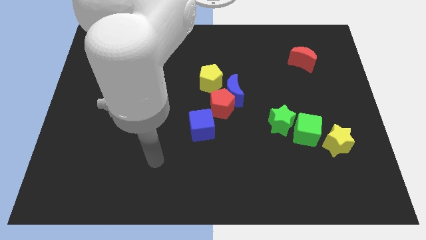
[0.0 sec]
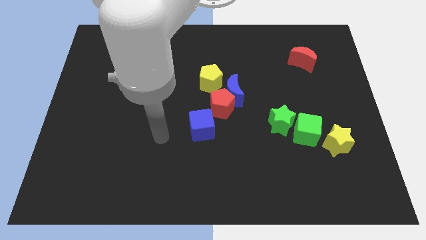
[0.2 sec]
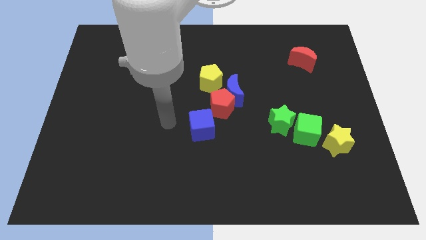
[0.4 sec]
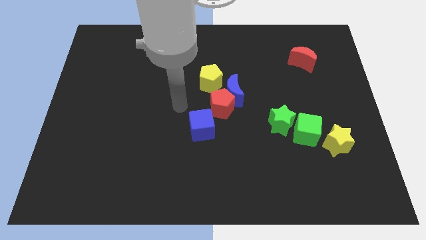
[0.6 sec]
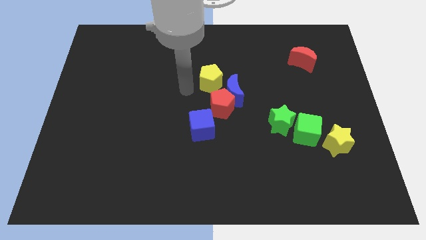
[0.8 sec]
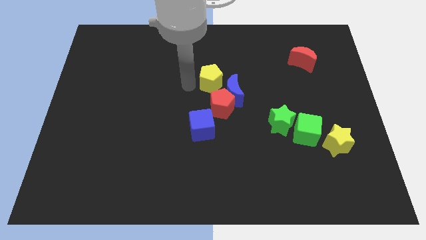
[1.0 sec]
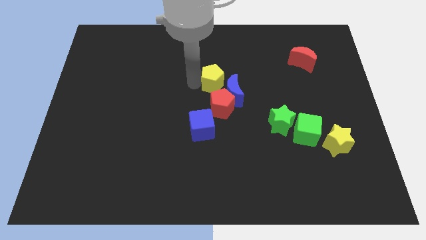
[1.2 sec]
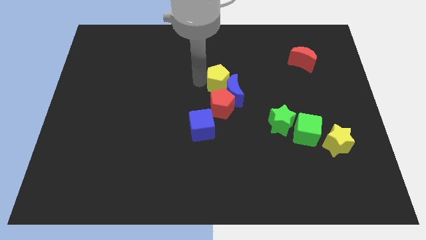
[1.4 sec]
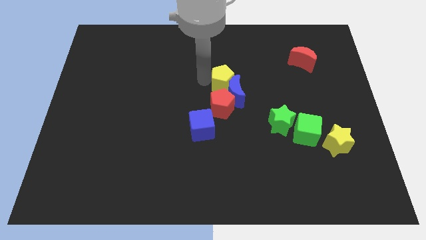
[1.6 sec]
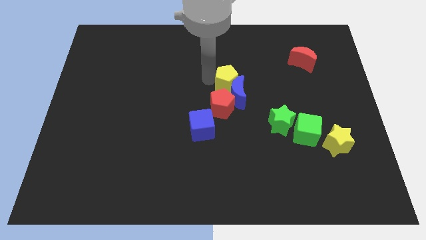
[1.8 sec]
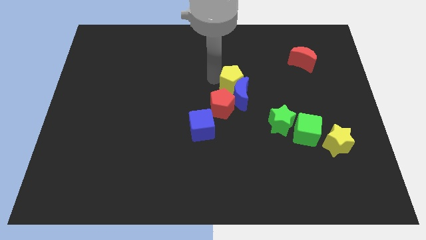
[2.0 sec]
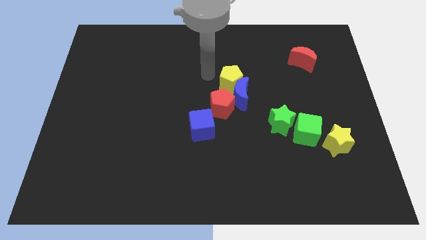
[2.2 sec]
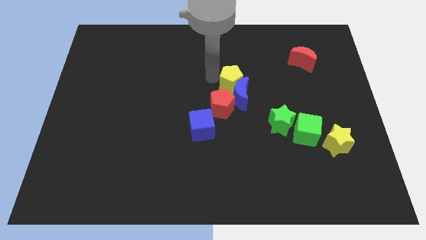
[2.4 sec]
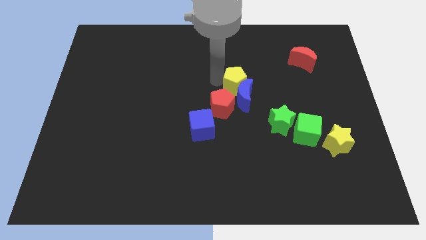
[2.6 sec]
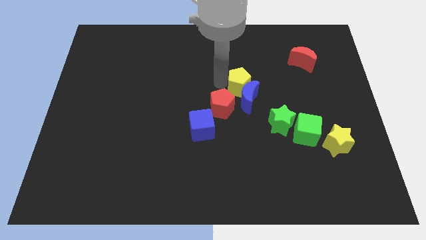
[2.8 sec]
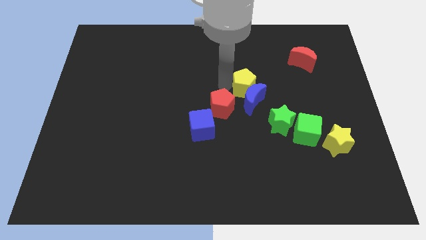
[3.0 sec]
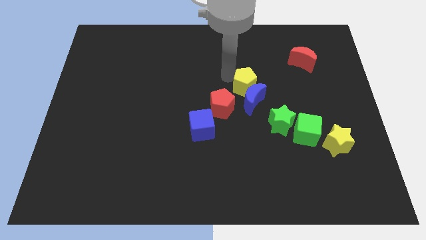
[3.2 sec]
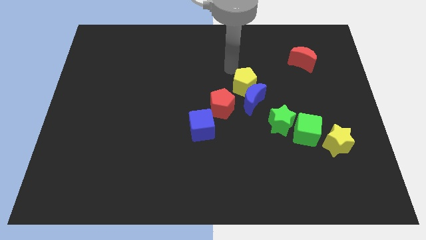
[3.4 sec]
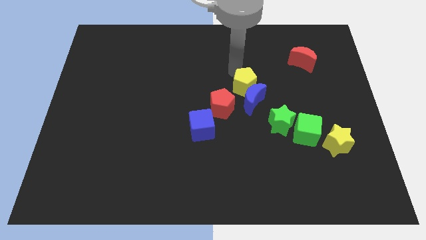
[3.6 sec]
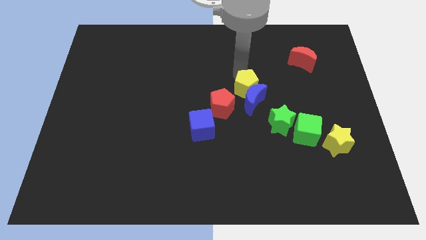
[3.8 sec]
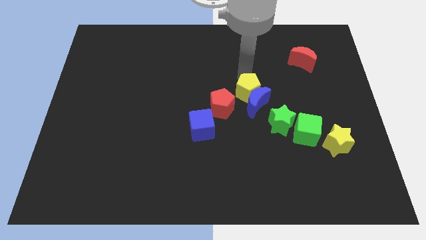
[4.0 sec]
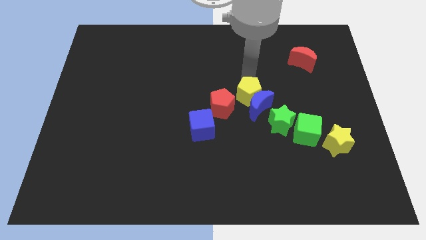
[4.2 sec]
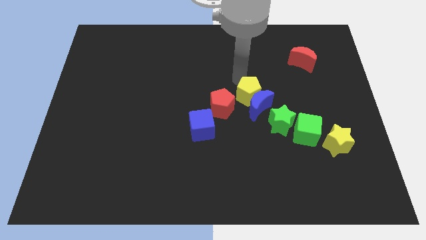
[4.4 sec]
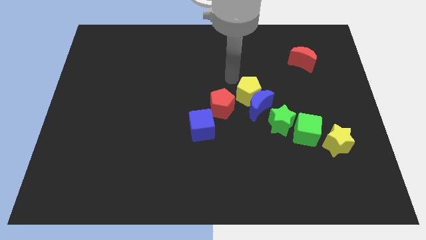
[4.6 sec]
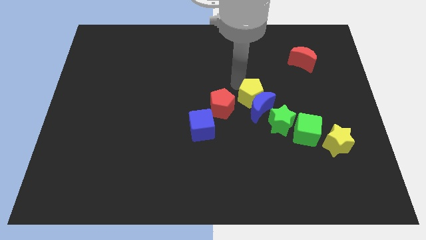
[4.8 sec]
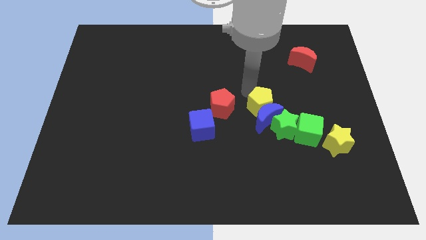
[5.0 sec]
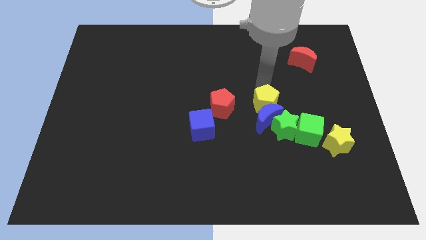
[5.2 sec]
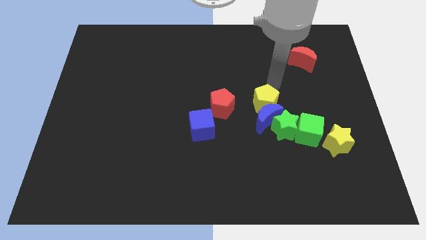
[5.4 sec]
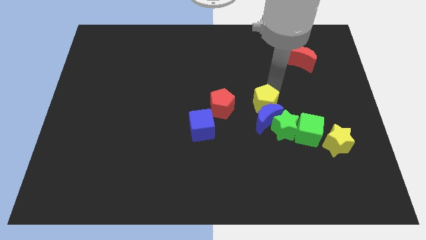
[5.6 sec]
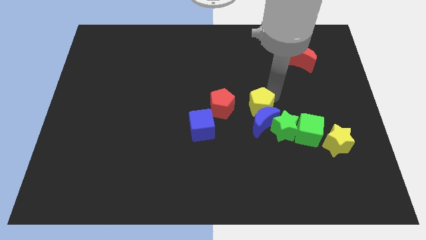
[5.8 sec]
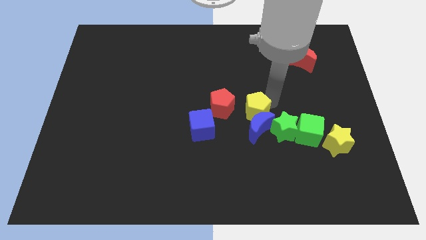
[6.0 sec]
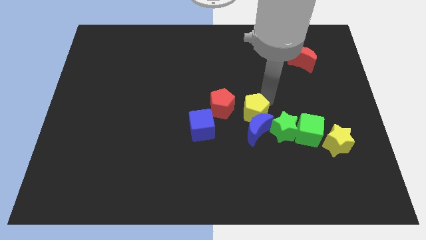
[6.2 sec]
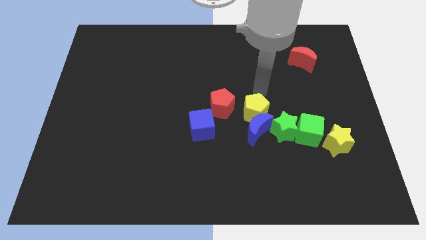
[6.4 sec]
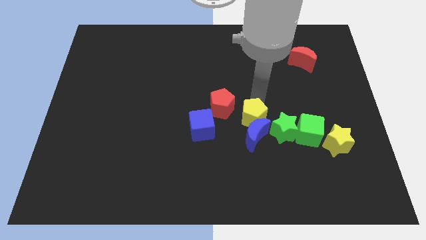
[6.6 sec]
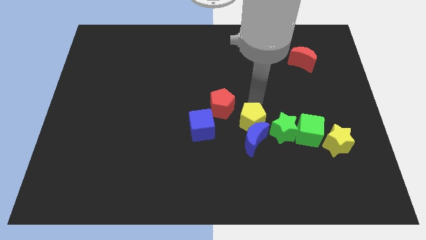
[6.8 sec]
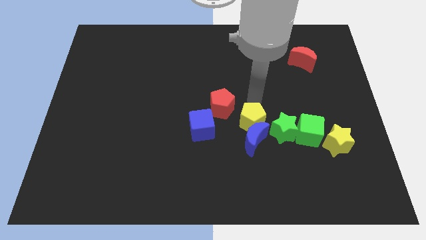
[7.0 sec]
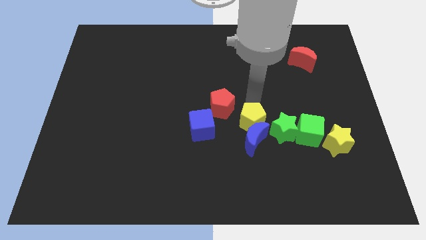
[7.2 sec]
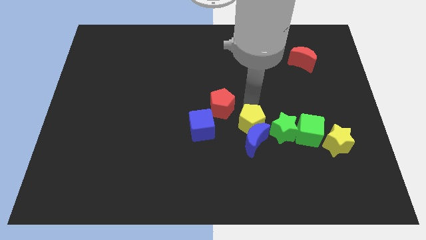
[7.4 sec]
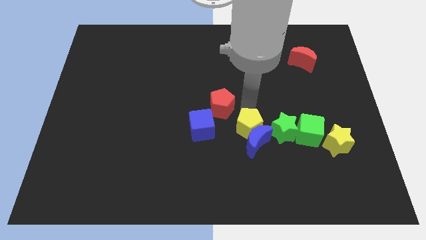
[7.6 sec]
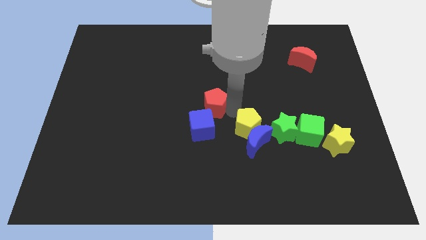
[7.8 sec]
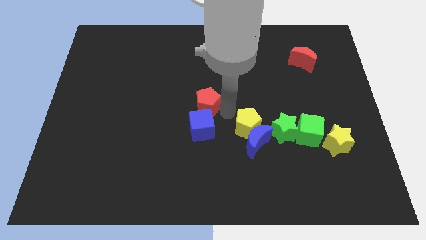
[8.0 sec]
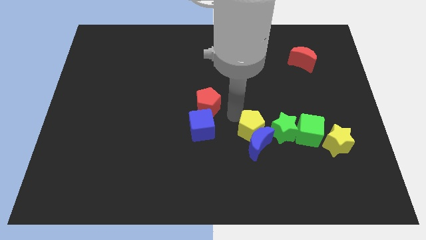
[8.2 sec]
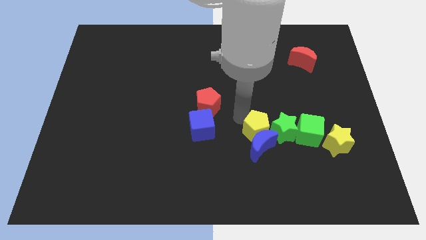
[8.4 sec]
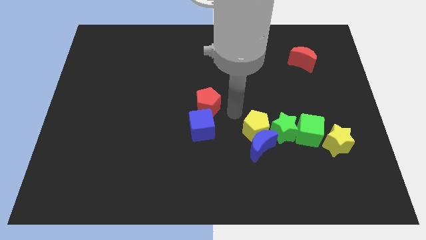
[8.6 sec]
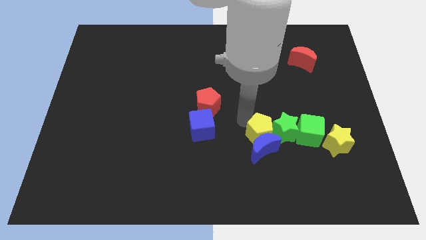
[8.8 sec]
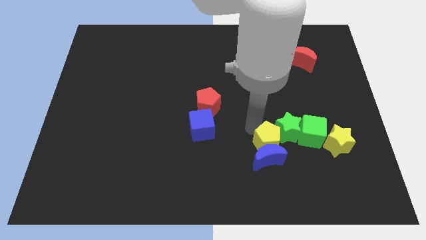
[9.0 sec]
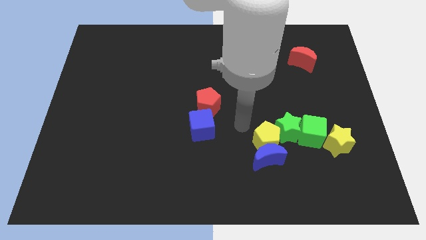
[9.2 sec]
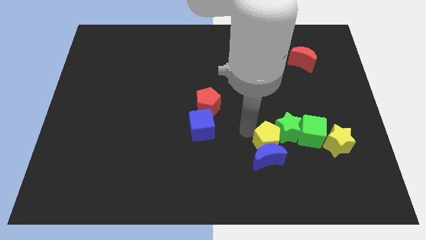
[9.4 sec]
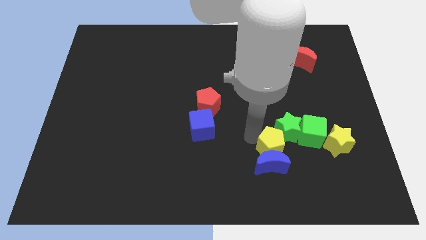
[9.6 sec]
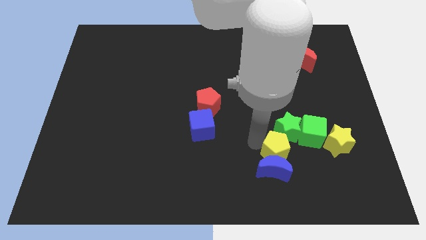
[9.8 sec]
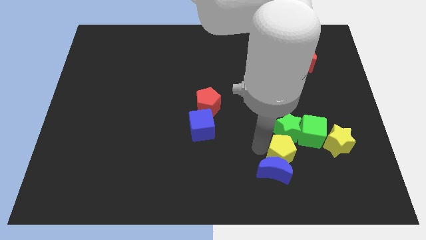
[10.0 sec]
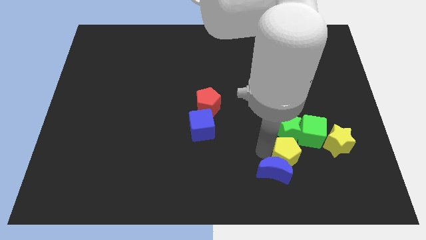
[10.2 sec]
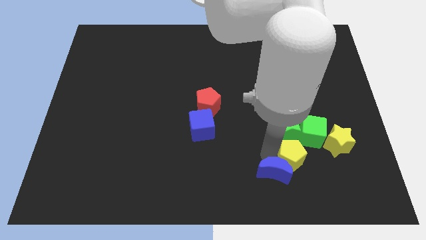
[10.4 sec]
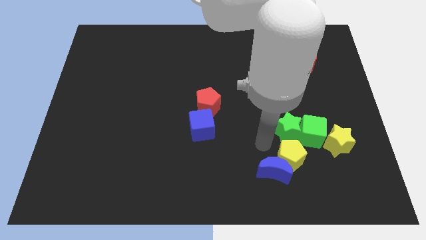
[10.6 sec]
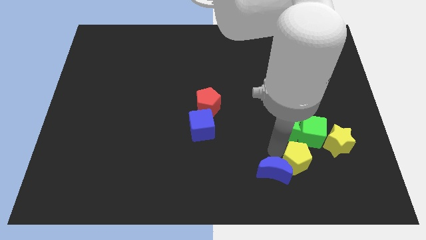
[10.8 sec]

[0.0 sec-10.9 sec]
put the yellow pentagon to the bottom side of the green cube

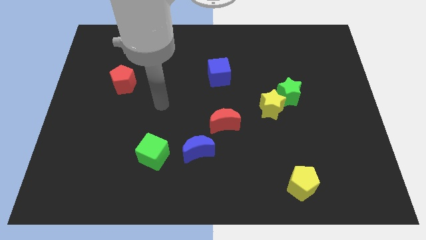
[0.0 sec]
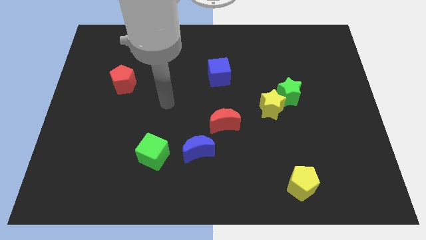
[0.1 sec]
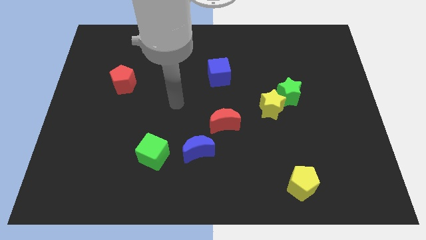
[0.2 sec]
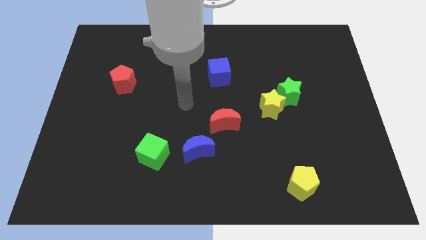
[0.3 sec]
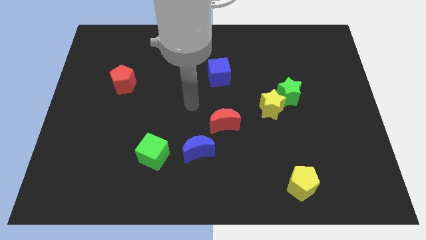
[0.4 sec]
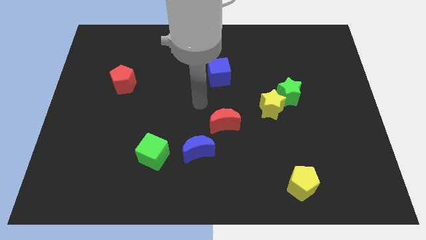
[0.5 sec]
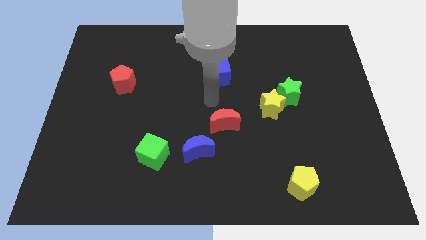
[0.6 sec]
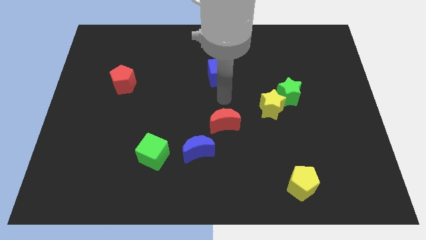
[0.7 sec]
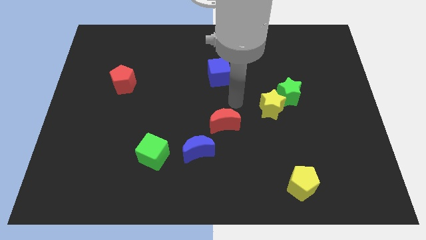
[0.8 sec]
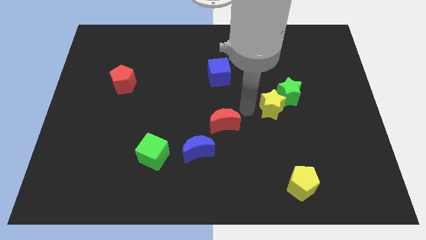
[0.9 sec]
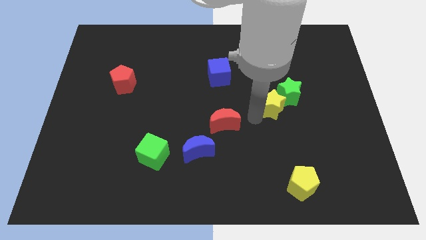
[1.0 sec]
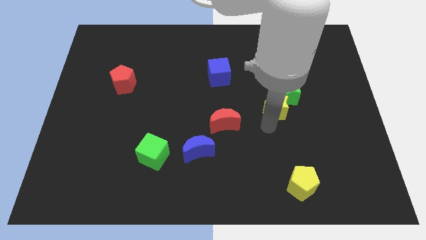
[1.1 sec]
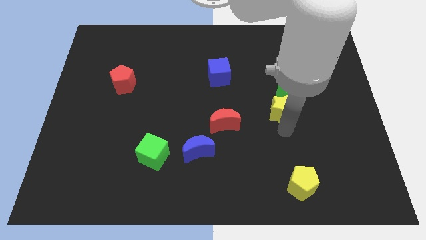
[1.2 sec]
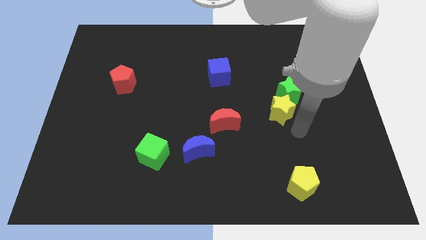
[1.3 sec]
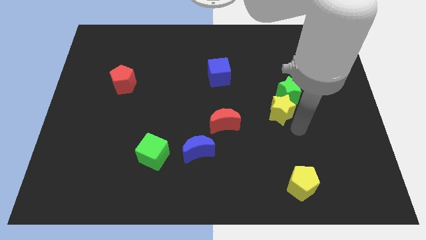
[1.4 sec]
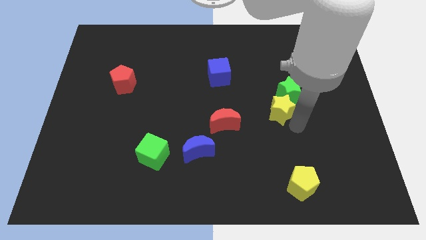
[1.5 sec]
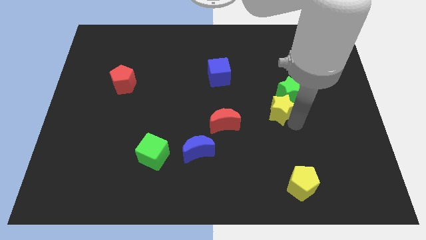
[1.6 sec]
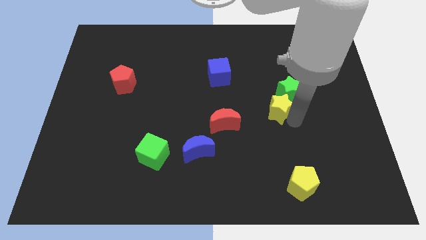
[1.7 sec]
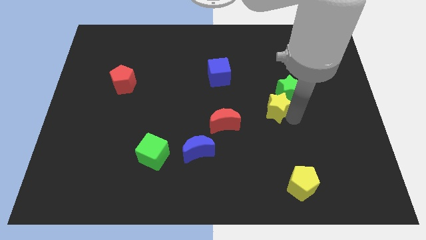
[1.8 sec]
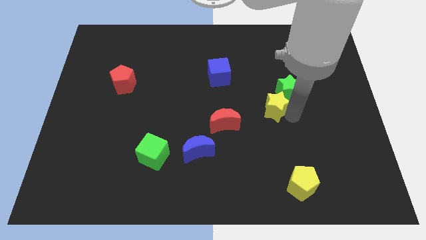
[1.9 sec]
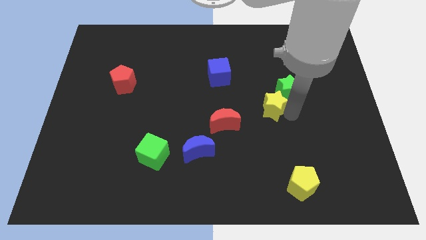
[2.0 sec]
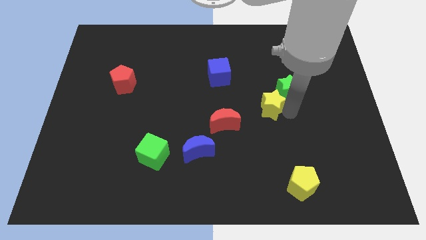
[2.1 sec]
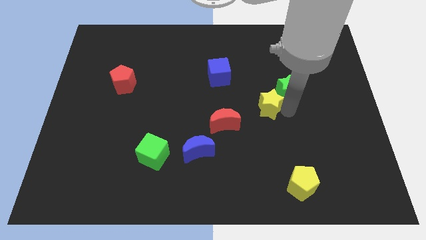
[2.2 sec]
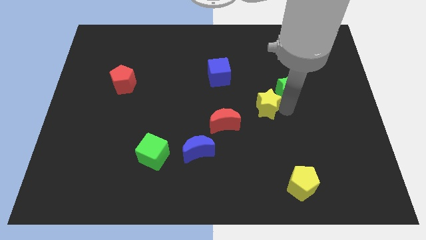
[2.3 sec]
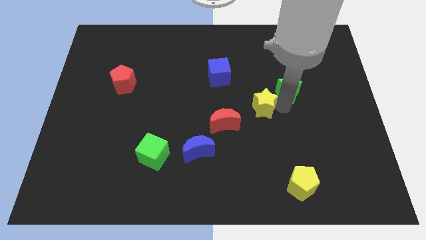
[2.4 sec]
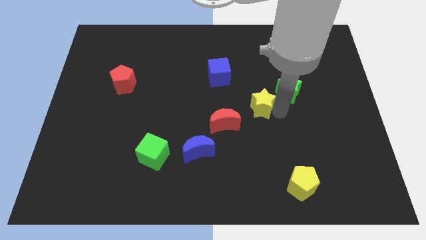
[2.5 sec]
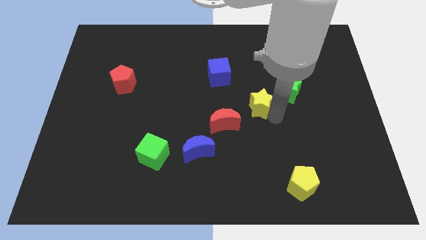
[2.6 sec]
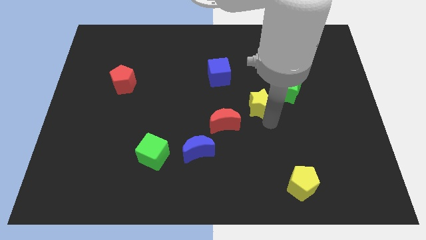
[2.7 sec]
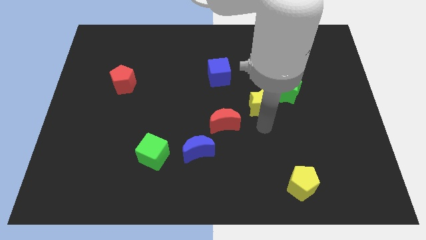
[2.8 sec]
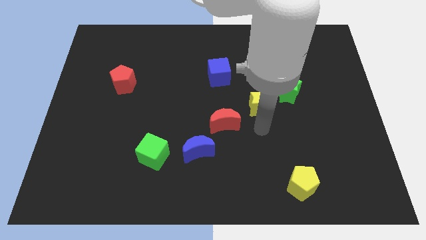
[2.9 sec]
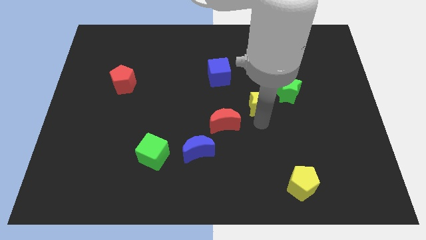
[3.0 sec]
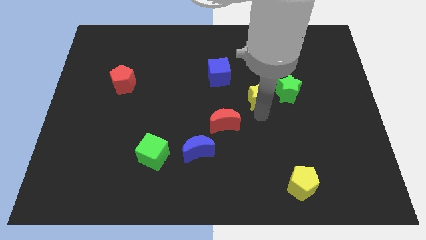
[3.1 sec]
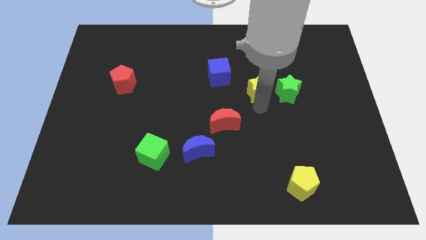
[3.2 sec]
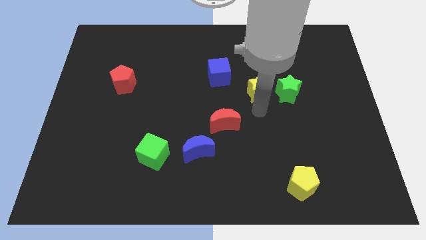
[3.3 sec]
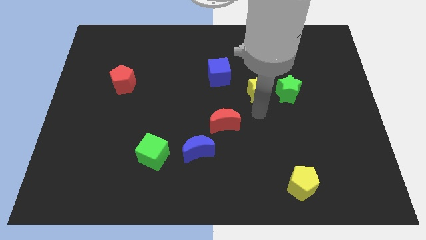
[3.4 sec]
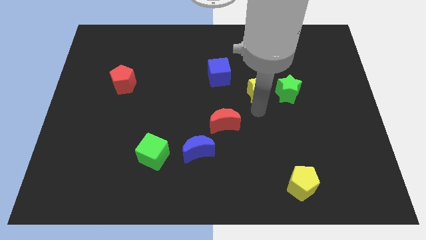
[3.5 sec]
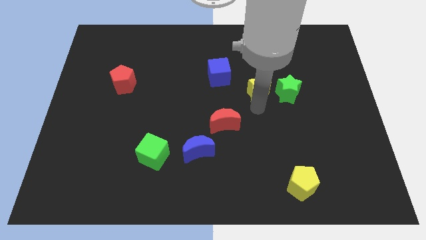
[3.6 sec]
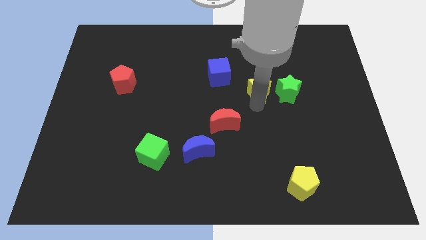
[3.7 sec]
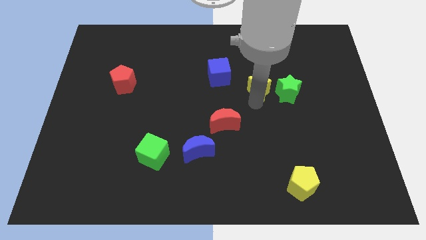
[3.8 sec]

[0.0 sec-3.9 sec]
put the yellow star to the right of the blue cube
